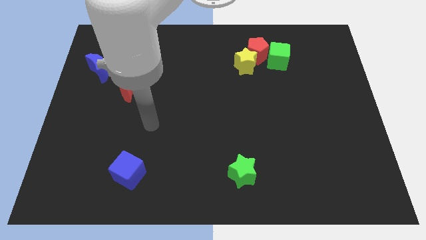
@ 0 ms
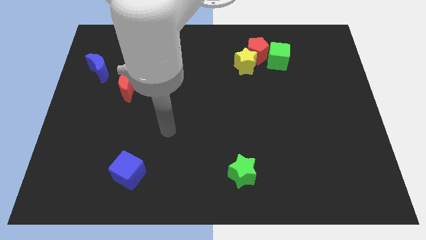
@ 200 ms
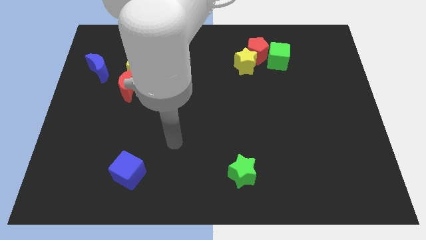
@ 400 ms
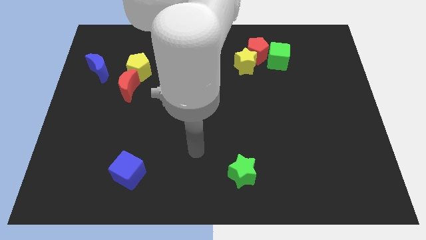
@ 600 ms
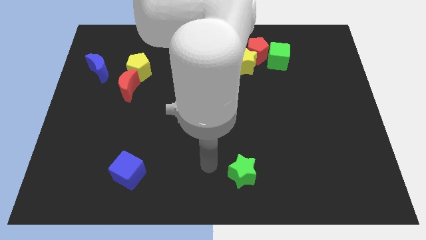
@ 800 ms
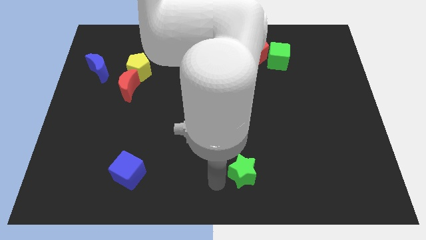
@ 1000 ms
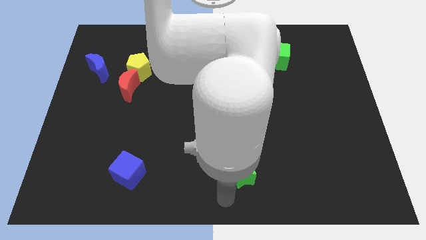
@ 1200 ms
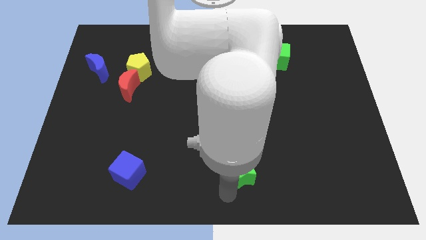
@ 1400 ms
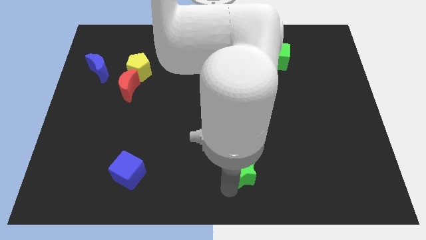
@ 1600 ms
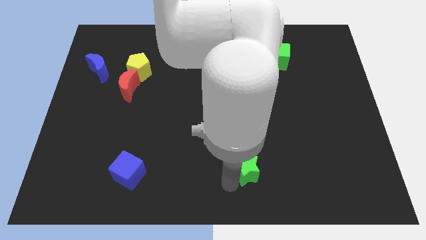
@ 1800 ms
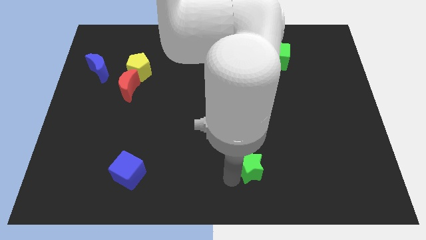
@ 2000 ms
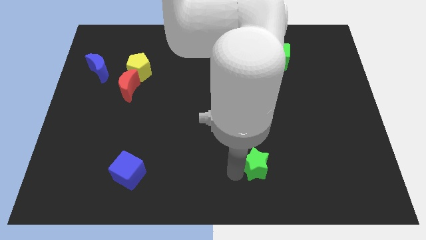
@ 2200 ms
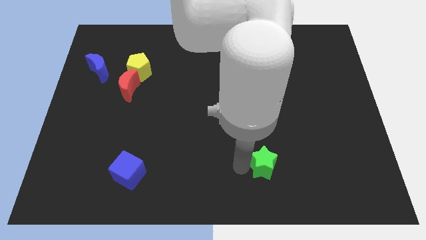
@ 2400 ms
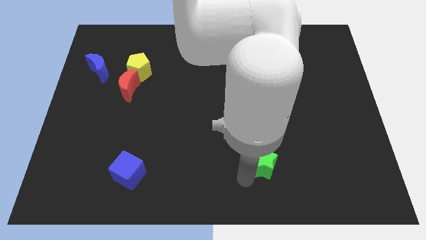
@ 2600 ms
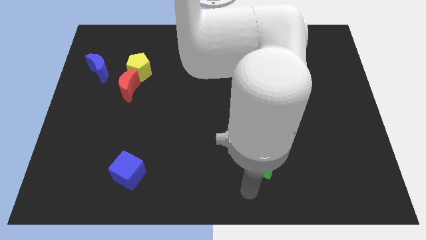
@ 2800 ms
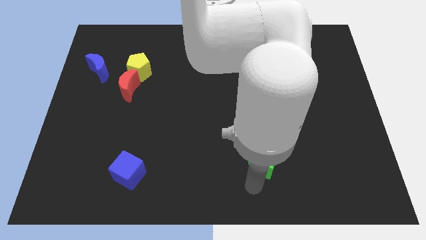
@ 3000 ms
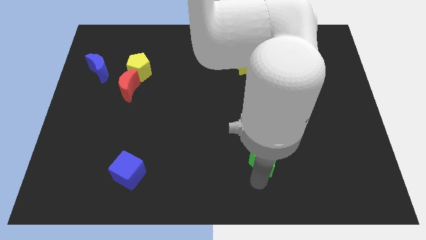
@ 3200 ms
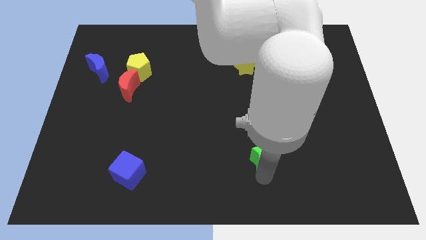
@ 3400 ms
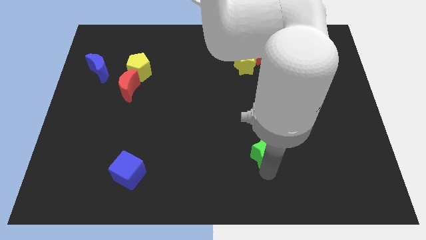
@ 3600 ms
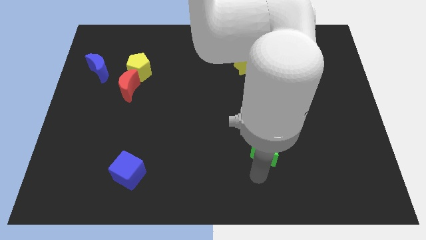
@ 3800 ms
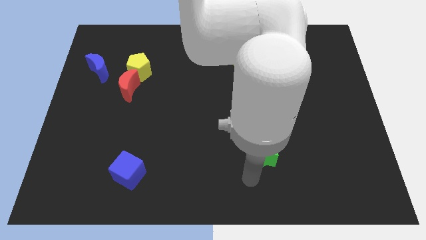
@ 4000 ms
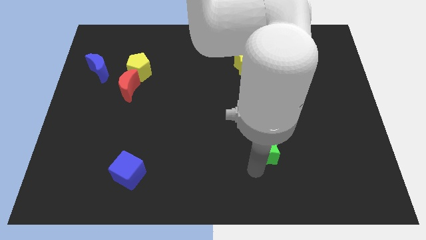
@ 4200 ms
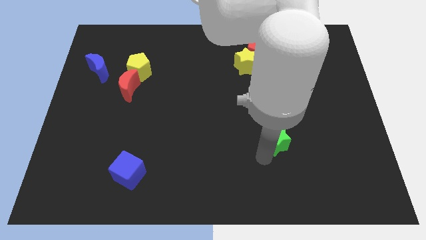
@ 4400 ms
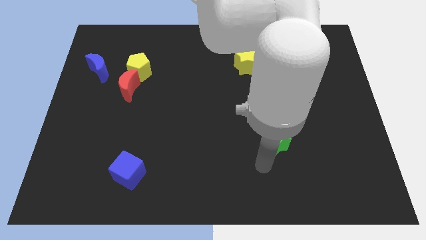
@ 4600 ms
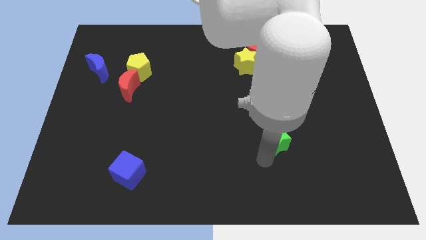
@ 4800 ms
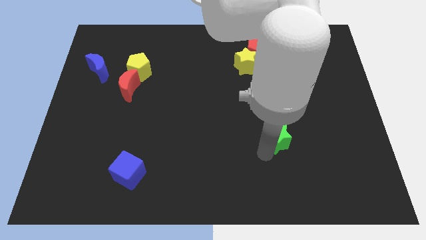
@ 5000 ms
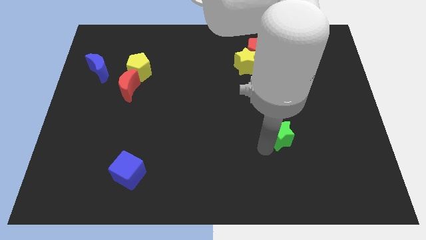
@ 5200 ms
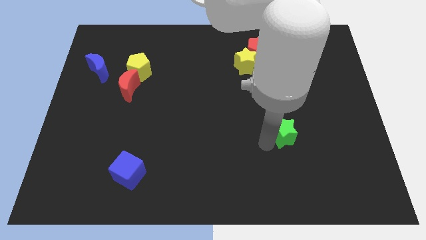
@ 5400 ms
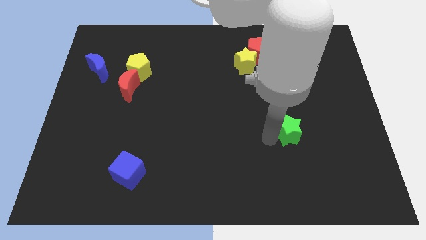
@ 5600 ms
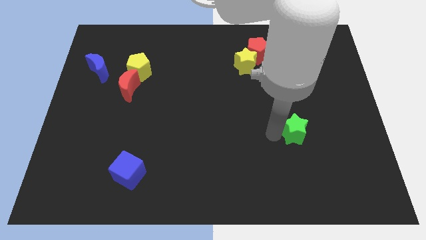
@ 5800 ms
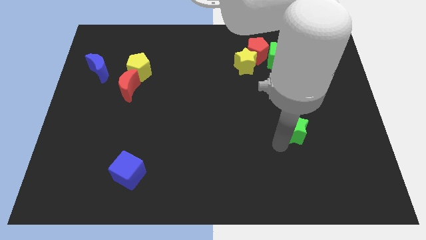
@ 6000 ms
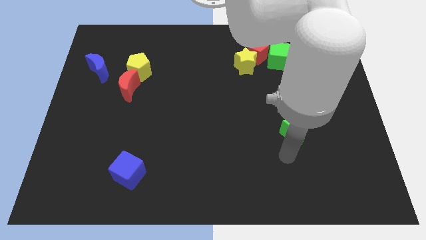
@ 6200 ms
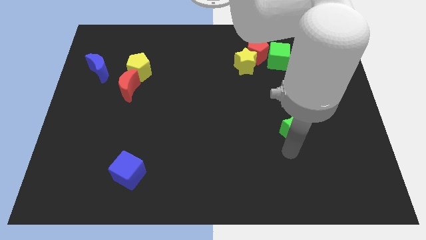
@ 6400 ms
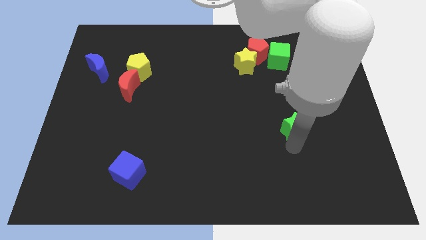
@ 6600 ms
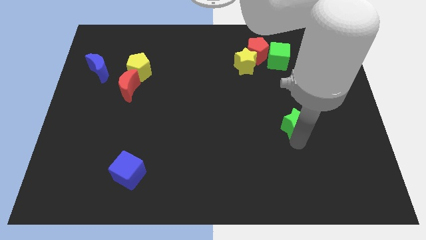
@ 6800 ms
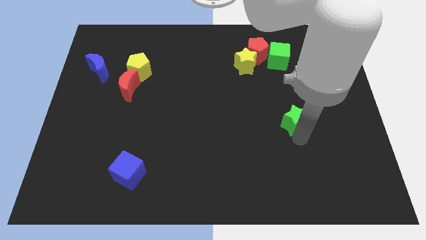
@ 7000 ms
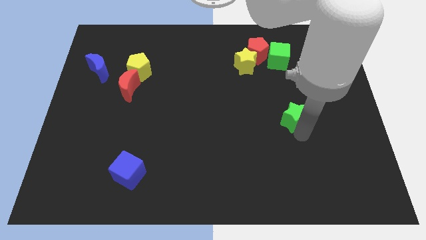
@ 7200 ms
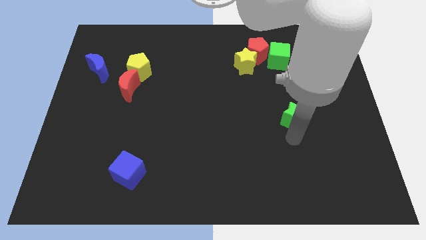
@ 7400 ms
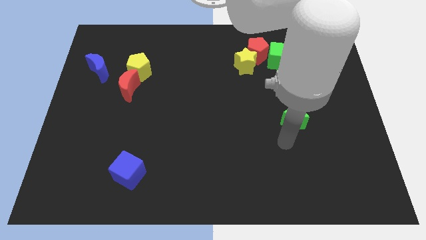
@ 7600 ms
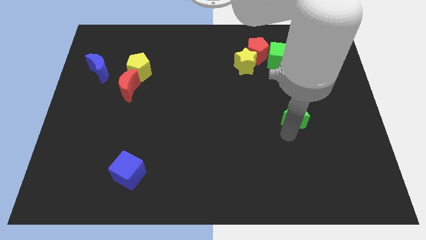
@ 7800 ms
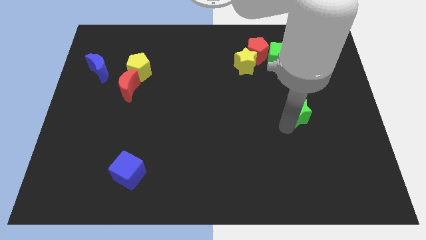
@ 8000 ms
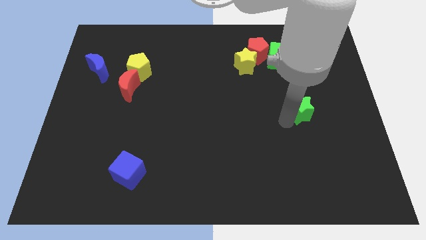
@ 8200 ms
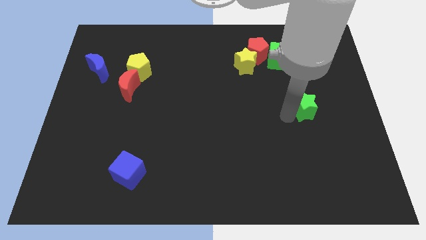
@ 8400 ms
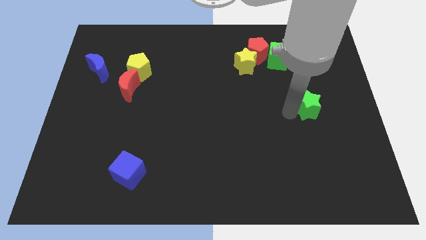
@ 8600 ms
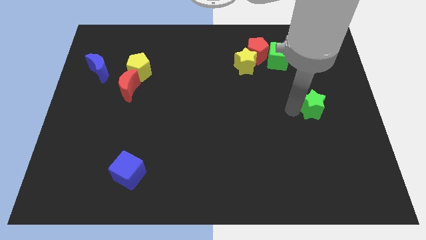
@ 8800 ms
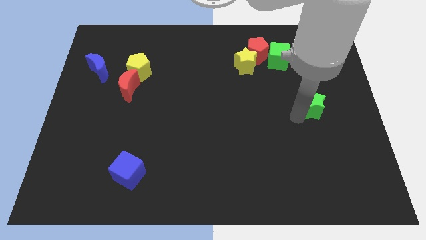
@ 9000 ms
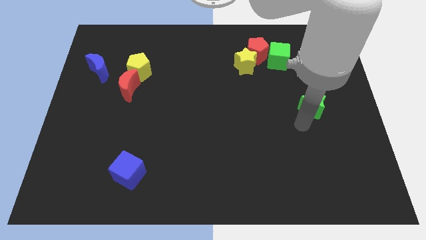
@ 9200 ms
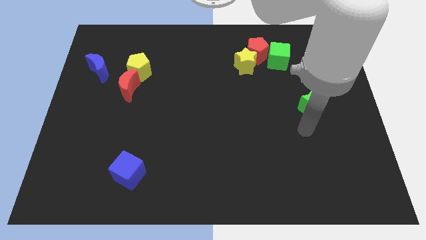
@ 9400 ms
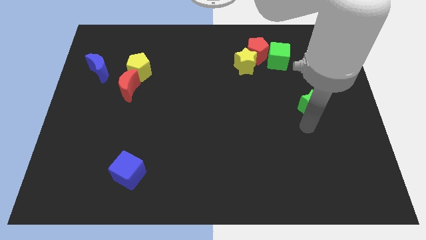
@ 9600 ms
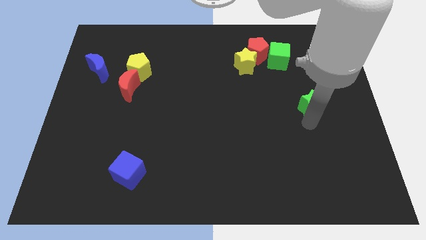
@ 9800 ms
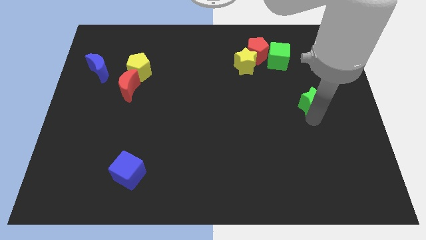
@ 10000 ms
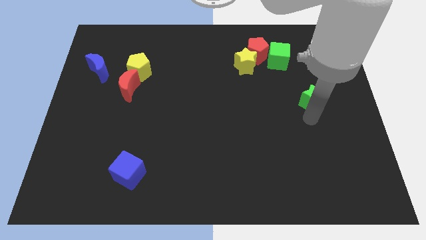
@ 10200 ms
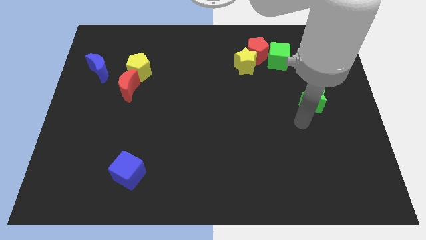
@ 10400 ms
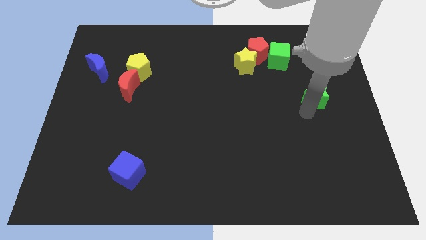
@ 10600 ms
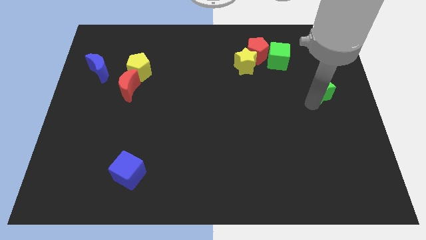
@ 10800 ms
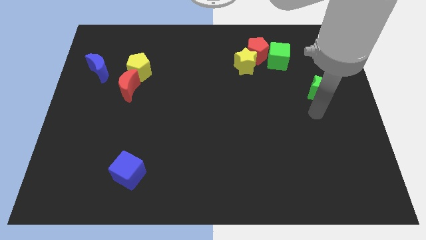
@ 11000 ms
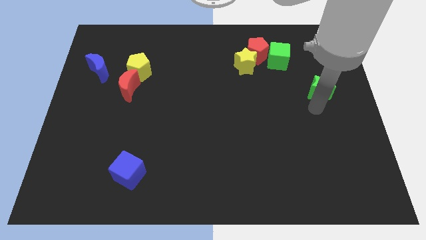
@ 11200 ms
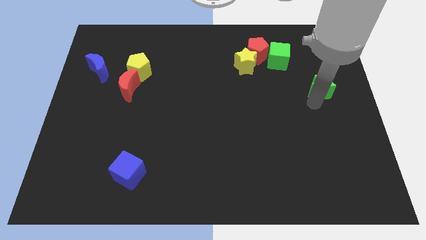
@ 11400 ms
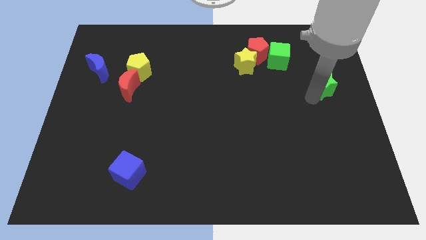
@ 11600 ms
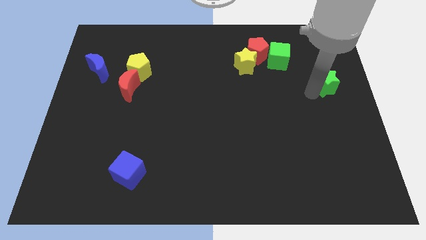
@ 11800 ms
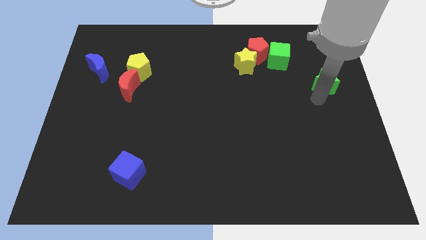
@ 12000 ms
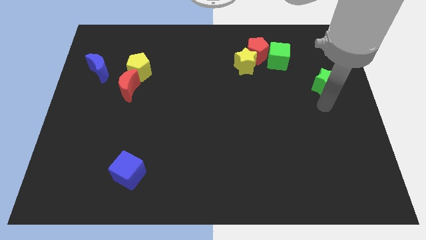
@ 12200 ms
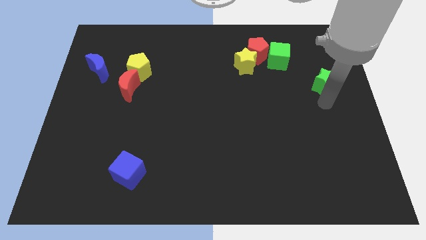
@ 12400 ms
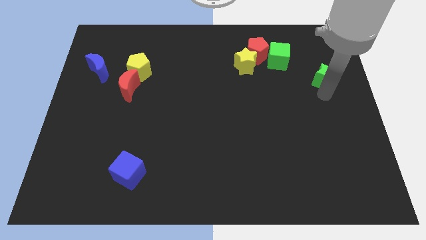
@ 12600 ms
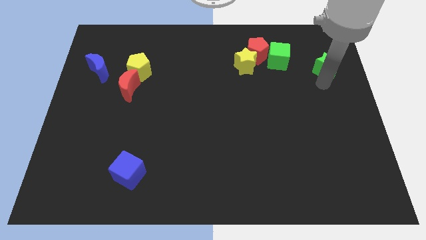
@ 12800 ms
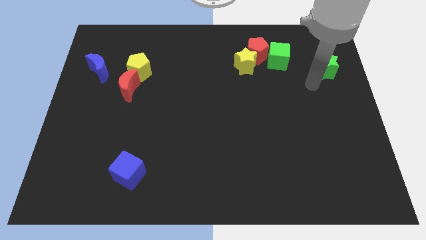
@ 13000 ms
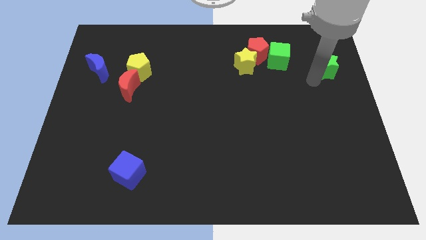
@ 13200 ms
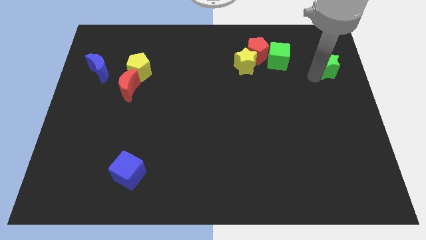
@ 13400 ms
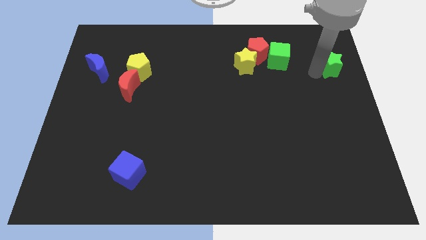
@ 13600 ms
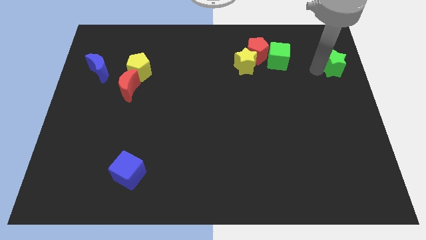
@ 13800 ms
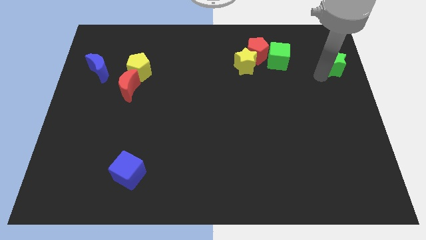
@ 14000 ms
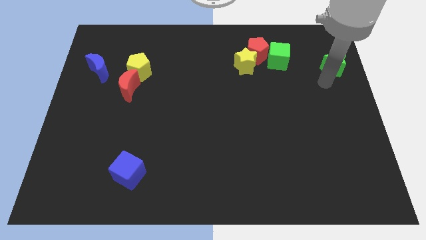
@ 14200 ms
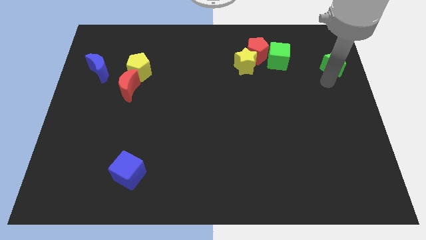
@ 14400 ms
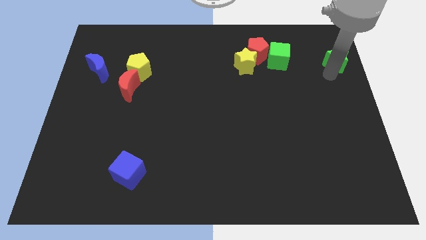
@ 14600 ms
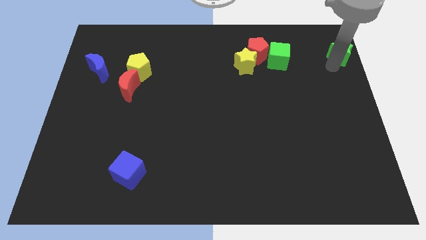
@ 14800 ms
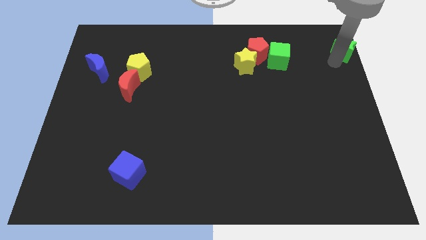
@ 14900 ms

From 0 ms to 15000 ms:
slide the green star to the top right corner
